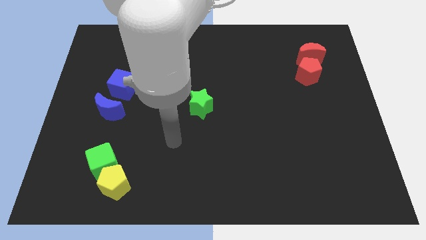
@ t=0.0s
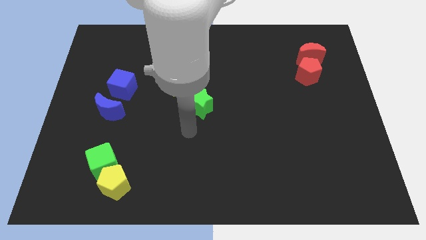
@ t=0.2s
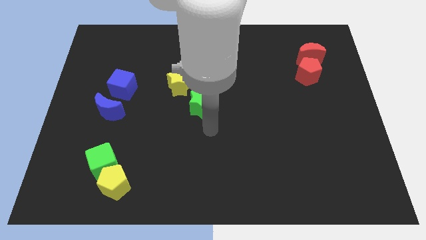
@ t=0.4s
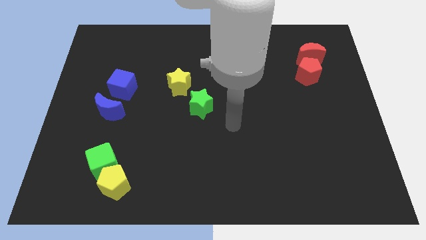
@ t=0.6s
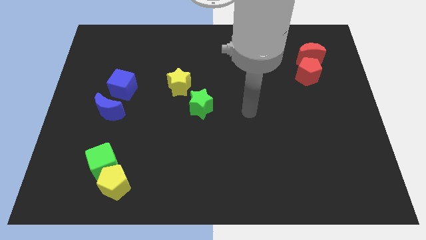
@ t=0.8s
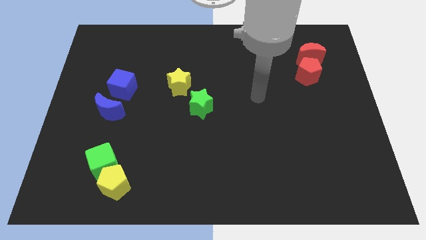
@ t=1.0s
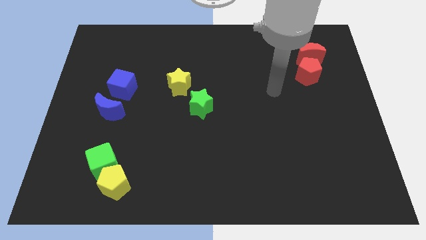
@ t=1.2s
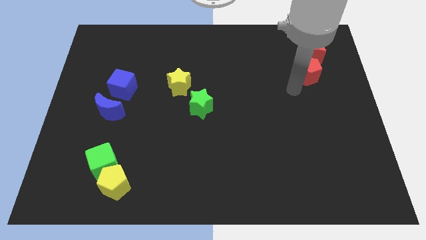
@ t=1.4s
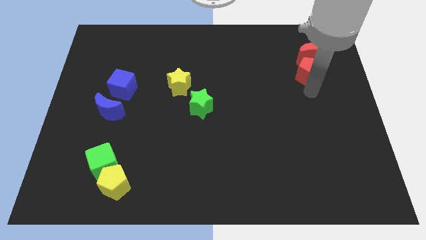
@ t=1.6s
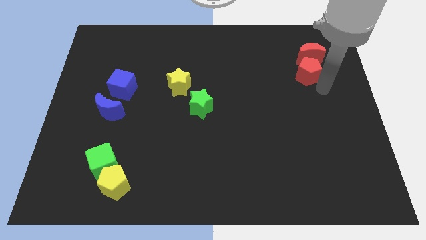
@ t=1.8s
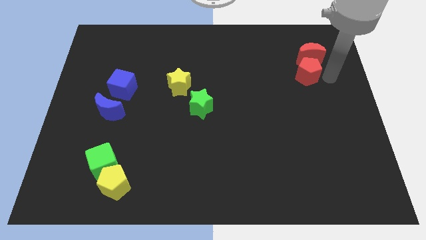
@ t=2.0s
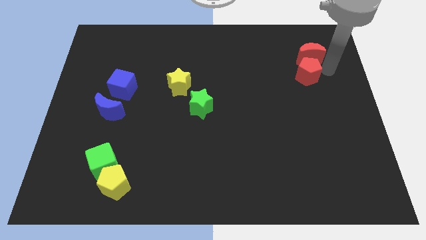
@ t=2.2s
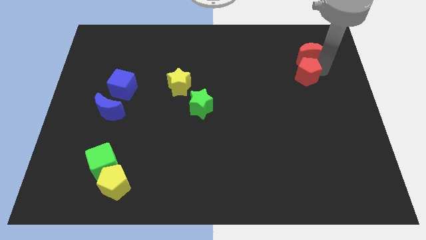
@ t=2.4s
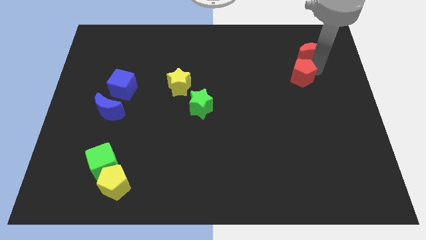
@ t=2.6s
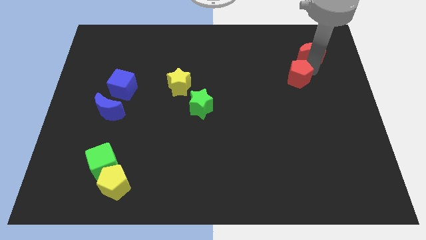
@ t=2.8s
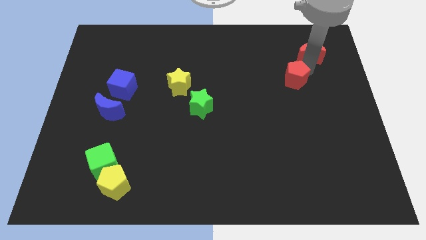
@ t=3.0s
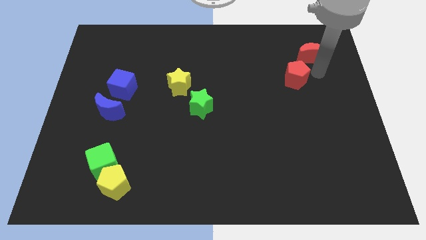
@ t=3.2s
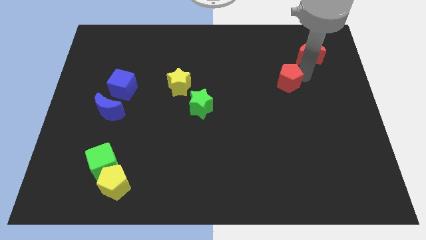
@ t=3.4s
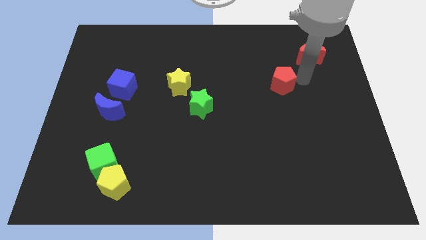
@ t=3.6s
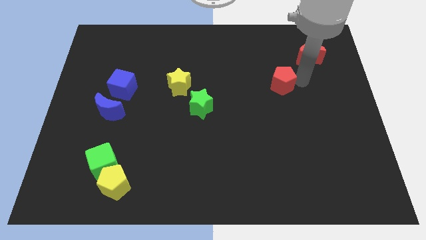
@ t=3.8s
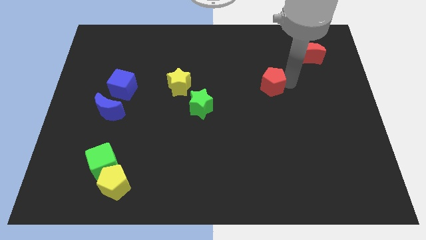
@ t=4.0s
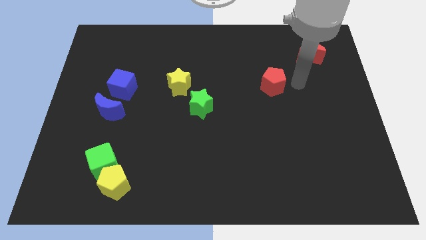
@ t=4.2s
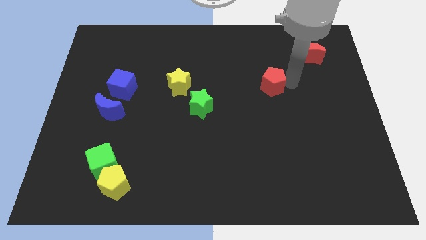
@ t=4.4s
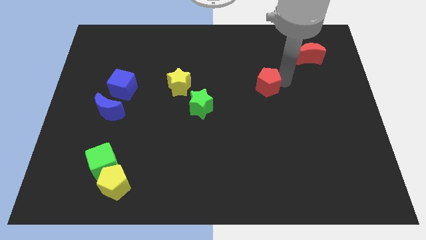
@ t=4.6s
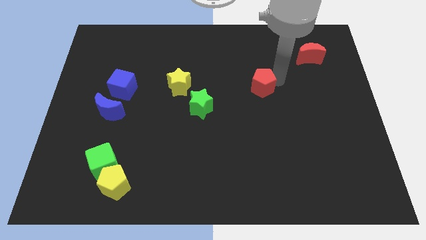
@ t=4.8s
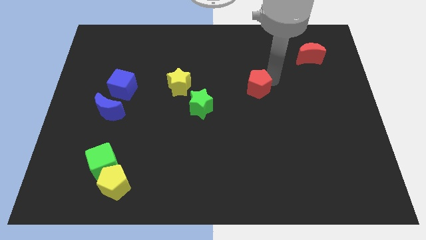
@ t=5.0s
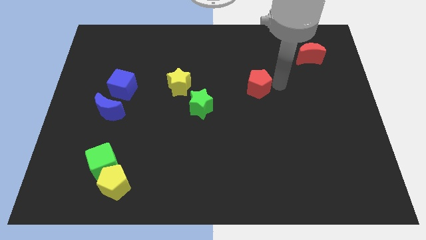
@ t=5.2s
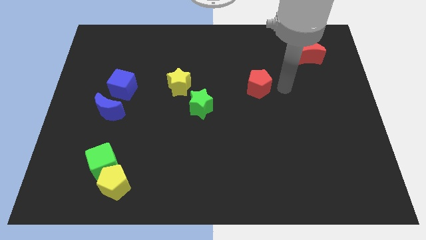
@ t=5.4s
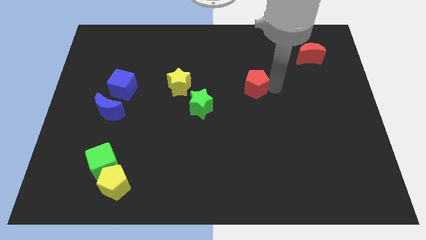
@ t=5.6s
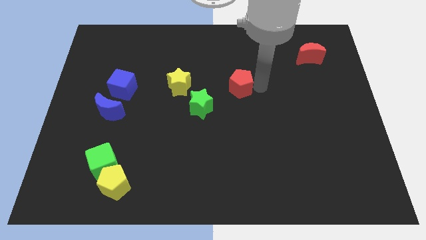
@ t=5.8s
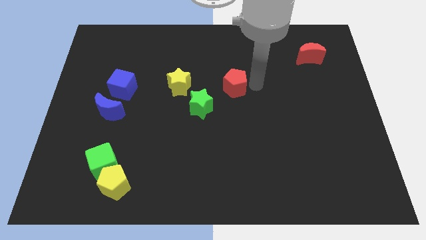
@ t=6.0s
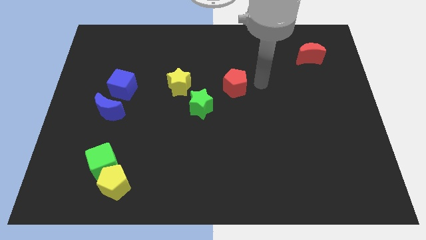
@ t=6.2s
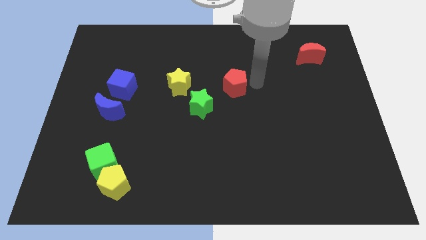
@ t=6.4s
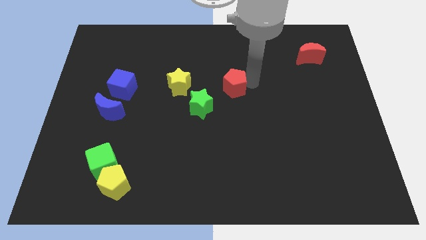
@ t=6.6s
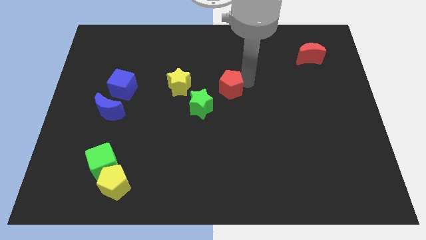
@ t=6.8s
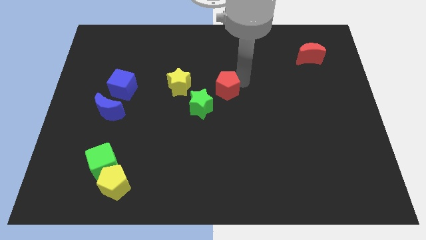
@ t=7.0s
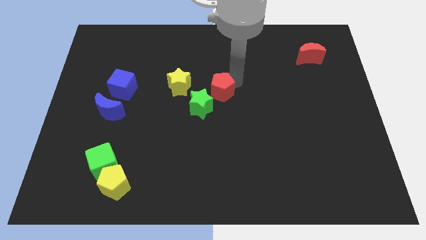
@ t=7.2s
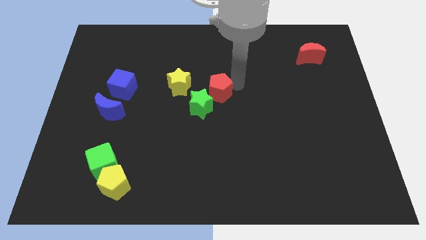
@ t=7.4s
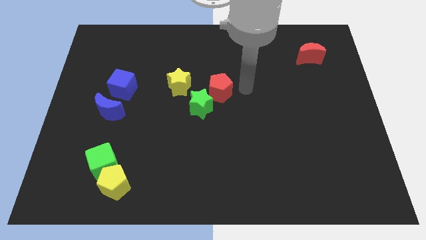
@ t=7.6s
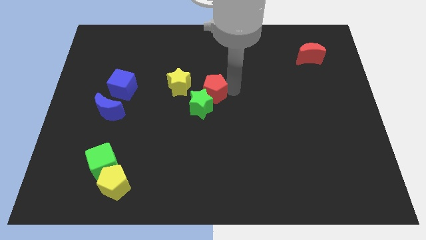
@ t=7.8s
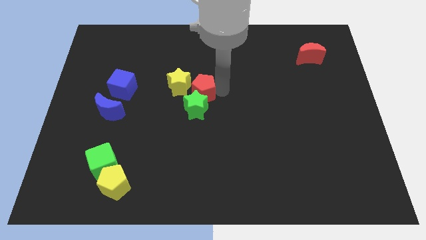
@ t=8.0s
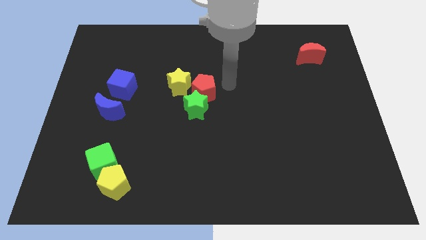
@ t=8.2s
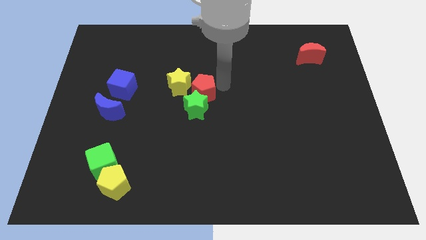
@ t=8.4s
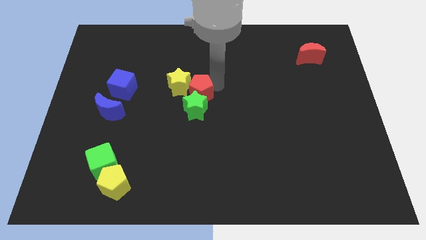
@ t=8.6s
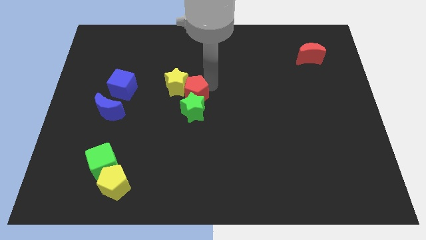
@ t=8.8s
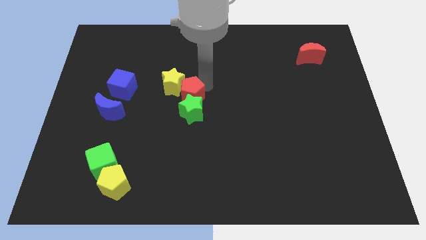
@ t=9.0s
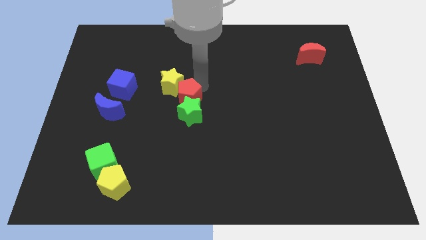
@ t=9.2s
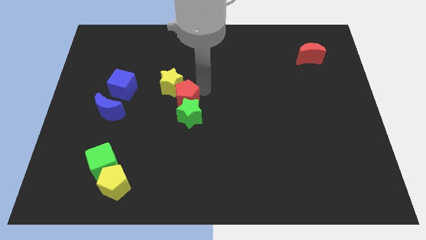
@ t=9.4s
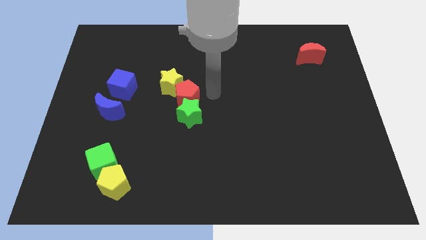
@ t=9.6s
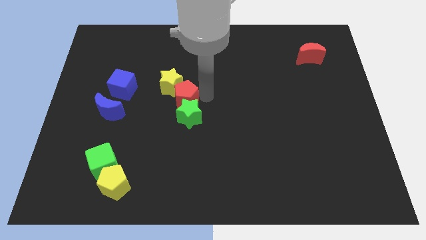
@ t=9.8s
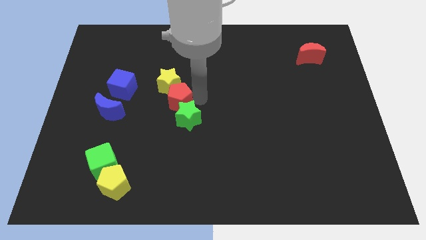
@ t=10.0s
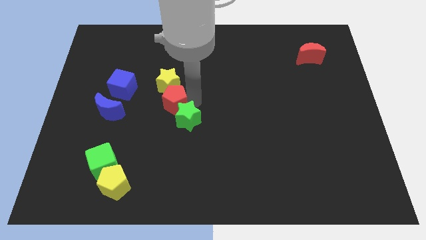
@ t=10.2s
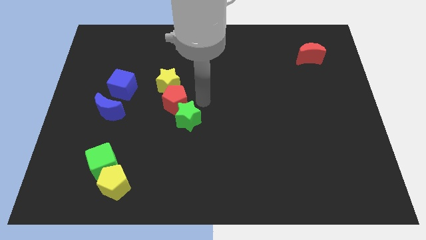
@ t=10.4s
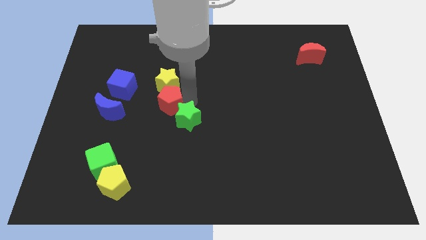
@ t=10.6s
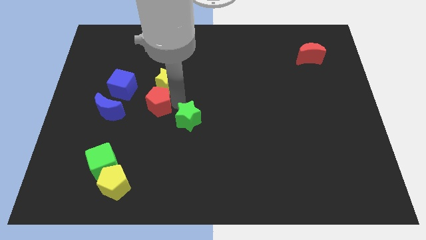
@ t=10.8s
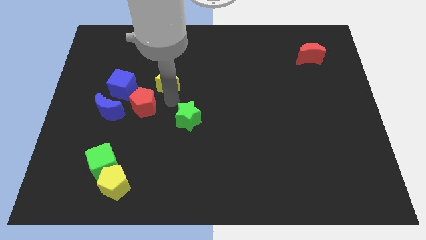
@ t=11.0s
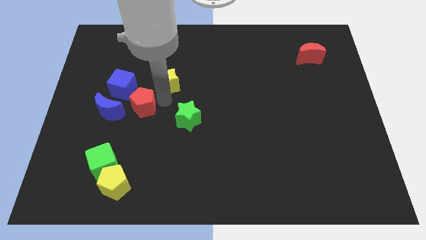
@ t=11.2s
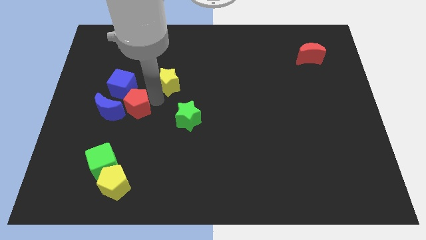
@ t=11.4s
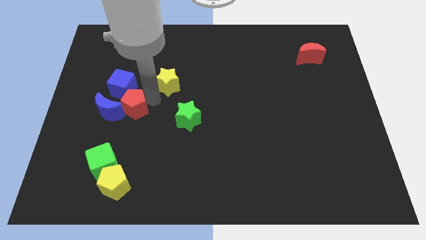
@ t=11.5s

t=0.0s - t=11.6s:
push the red pentagon to the blue moon

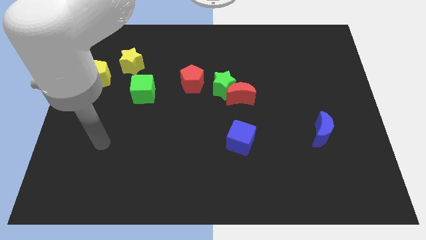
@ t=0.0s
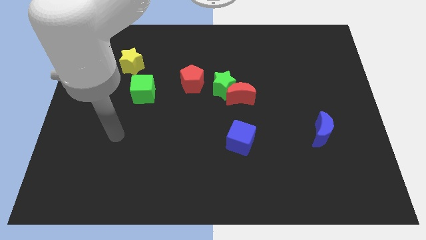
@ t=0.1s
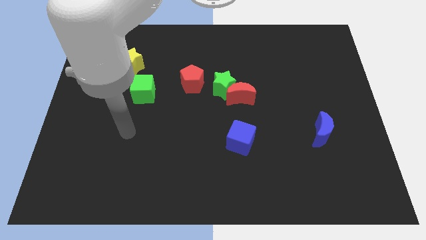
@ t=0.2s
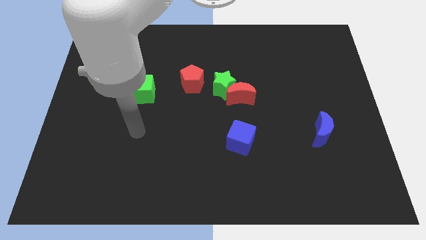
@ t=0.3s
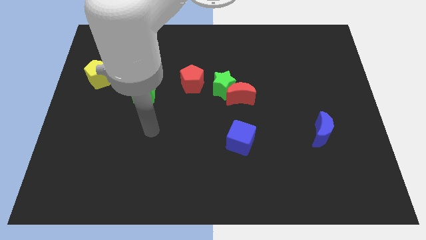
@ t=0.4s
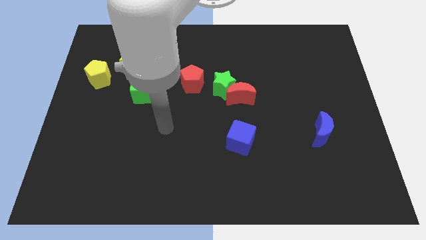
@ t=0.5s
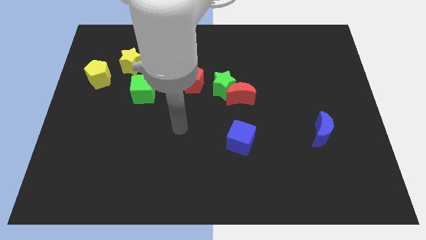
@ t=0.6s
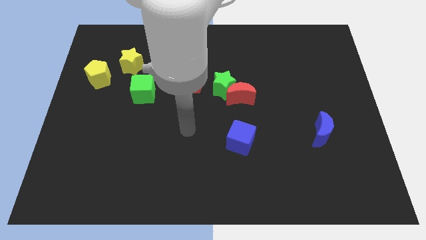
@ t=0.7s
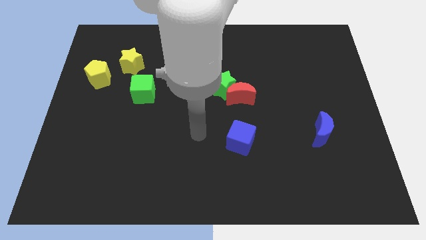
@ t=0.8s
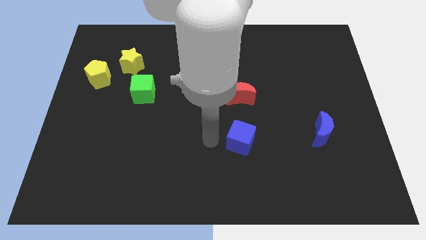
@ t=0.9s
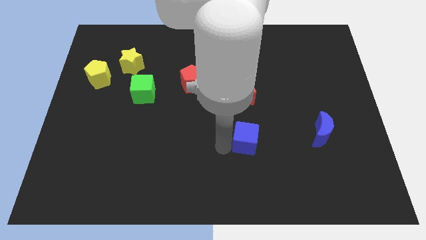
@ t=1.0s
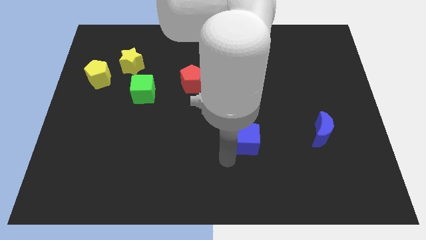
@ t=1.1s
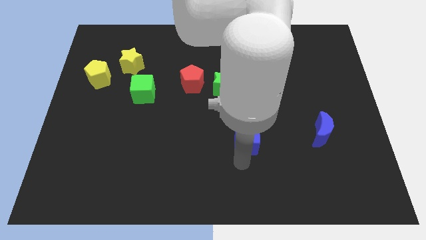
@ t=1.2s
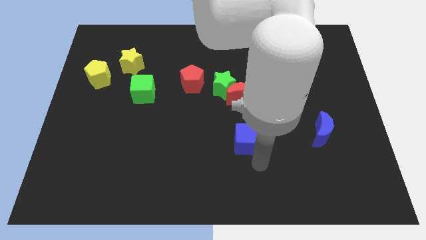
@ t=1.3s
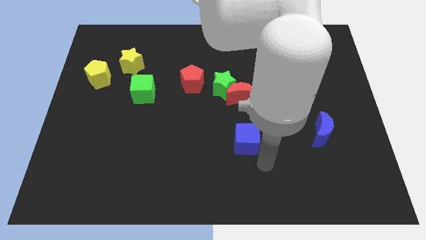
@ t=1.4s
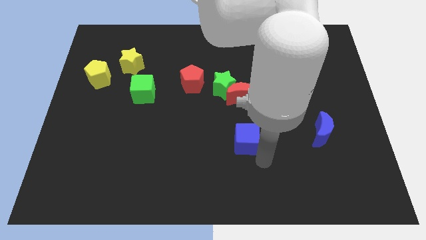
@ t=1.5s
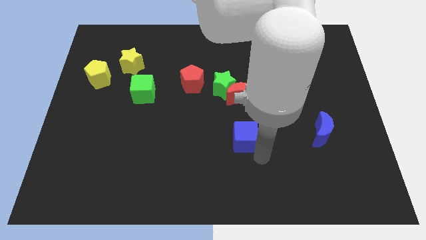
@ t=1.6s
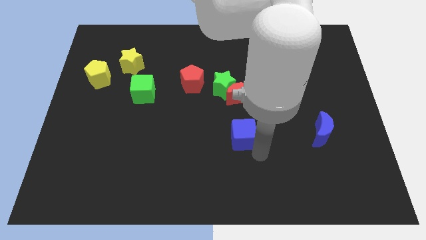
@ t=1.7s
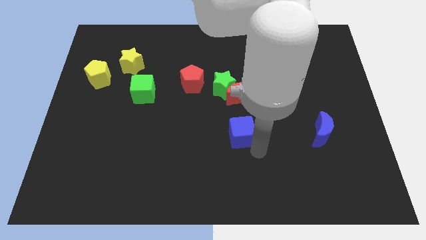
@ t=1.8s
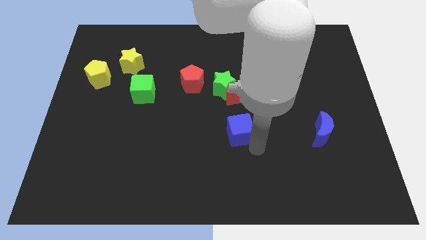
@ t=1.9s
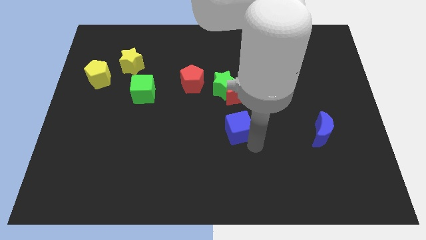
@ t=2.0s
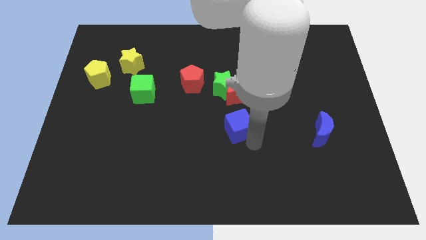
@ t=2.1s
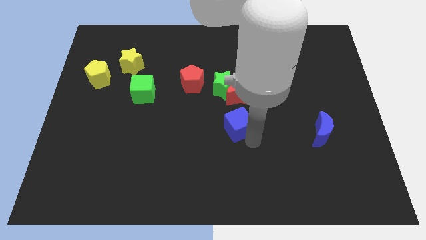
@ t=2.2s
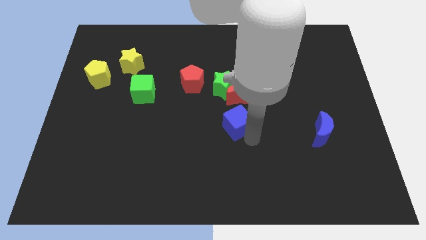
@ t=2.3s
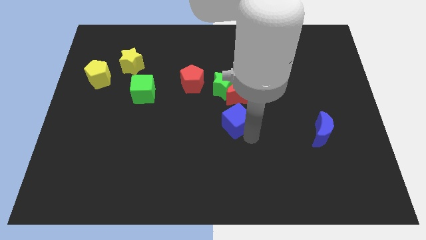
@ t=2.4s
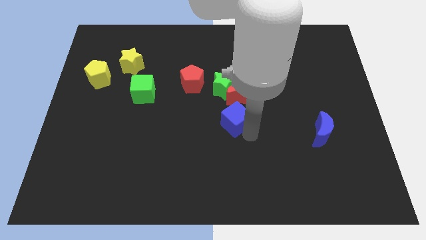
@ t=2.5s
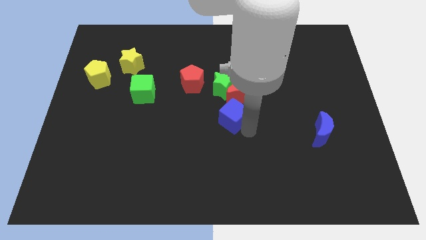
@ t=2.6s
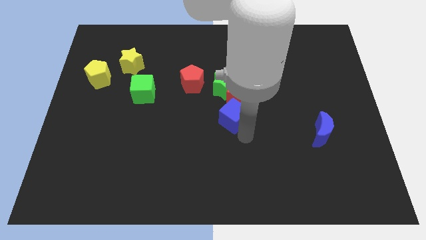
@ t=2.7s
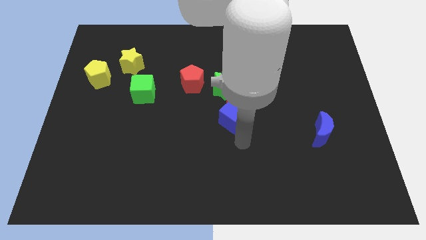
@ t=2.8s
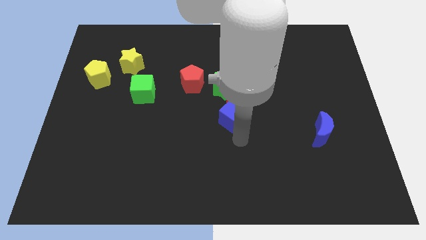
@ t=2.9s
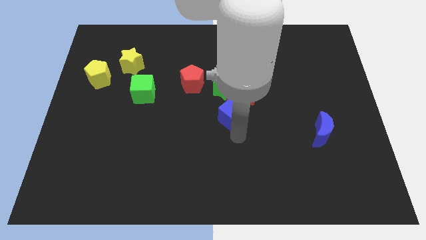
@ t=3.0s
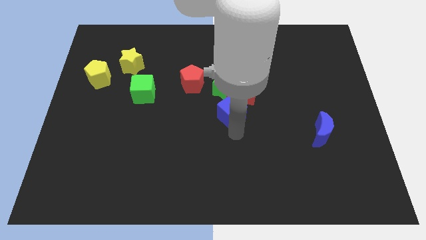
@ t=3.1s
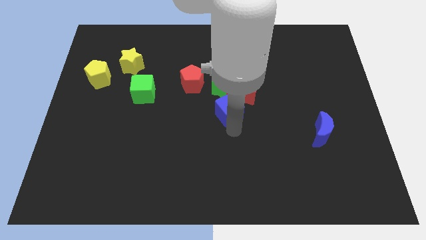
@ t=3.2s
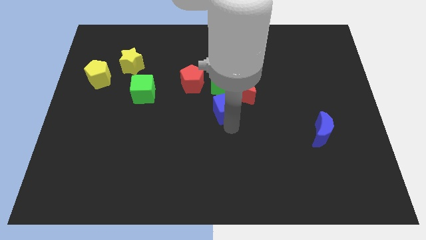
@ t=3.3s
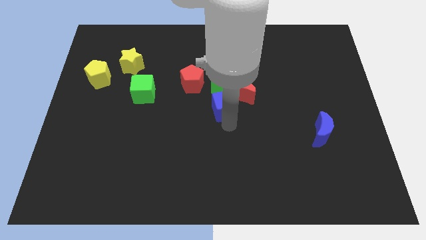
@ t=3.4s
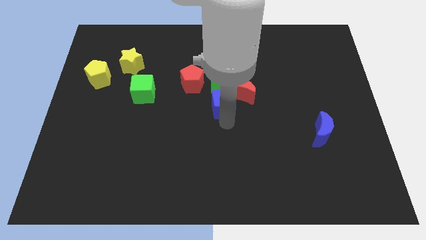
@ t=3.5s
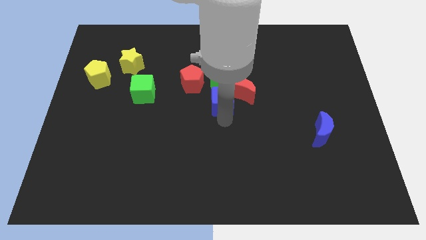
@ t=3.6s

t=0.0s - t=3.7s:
slide the blue cube close to the green star
